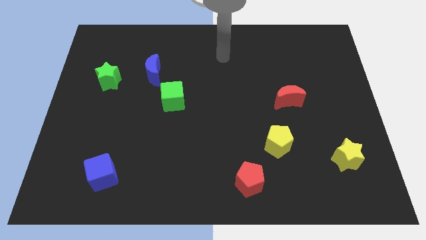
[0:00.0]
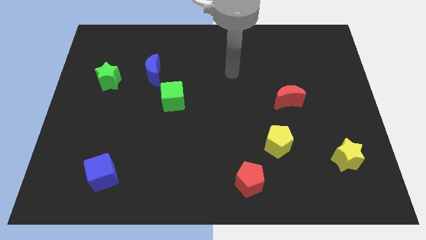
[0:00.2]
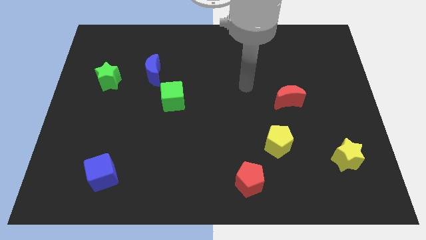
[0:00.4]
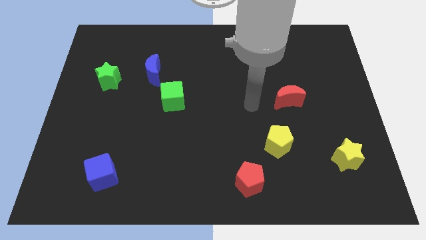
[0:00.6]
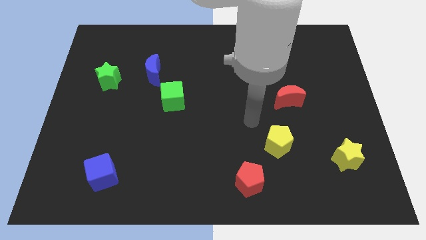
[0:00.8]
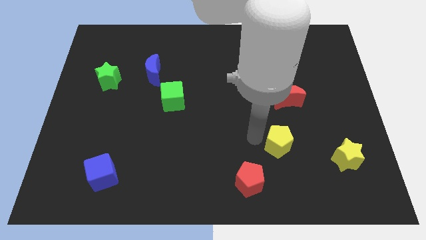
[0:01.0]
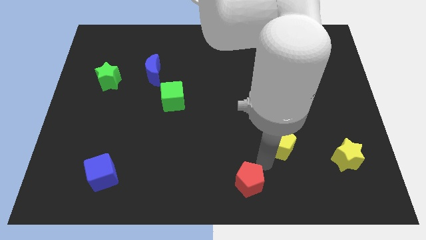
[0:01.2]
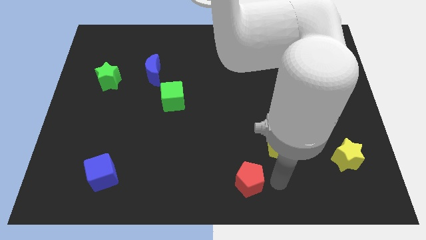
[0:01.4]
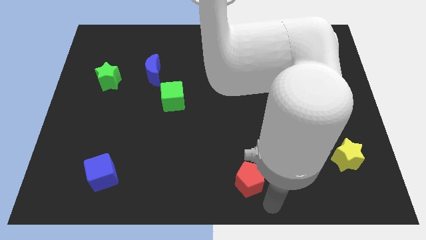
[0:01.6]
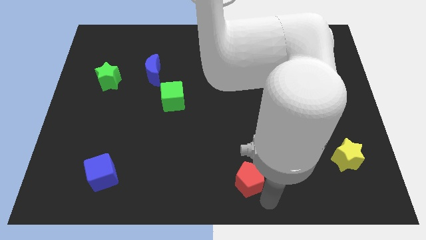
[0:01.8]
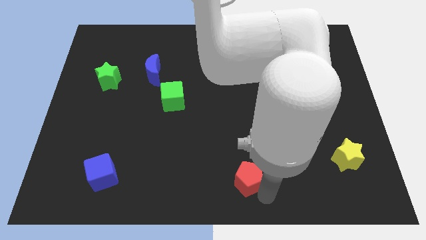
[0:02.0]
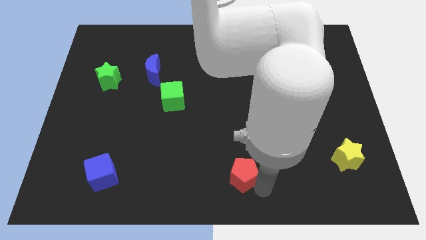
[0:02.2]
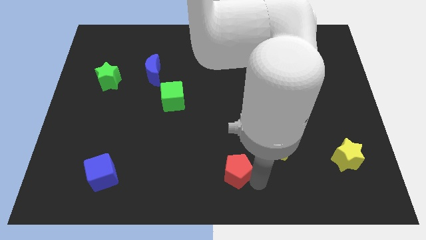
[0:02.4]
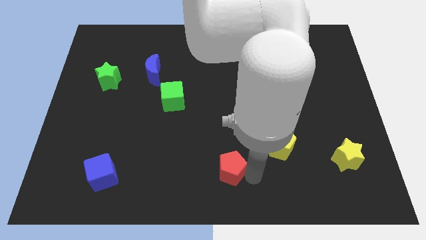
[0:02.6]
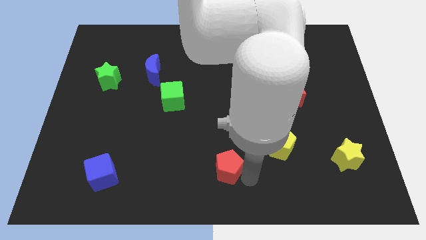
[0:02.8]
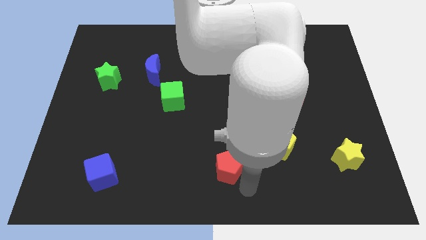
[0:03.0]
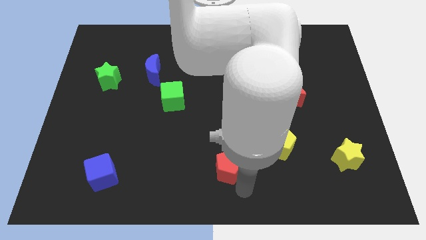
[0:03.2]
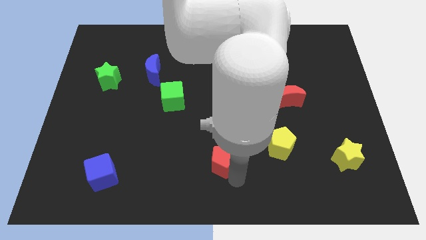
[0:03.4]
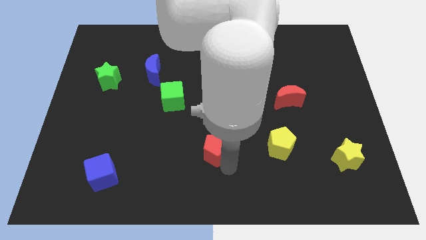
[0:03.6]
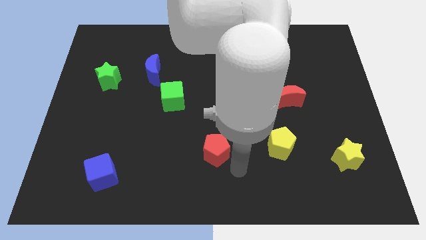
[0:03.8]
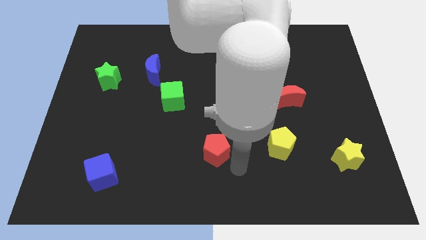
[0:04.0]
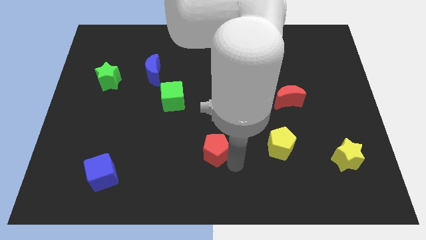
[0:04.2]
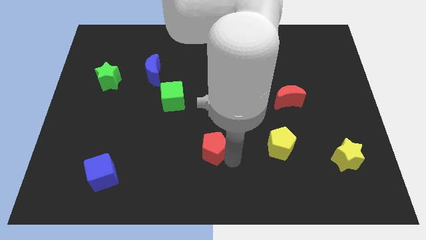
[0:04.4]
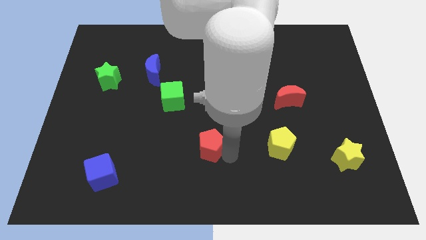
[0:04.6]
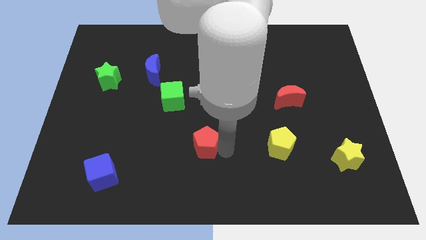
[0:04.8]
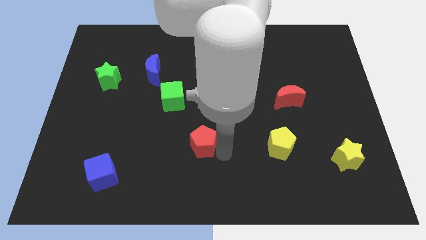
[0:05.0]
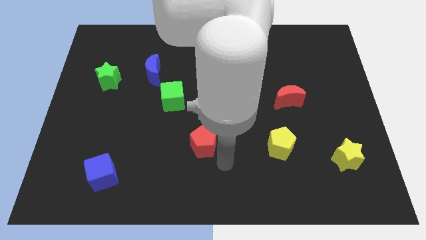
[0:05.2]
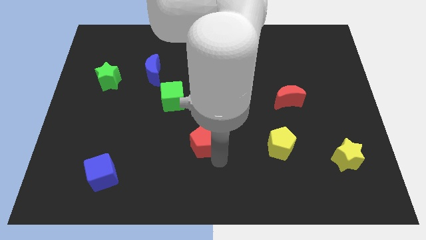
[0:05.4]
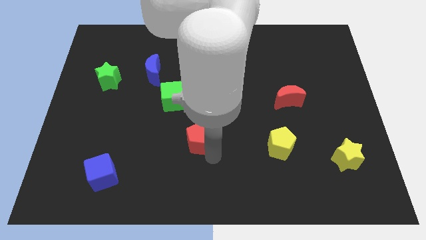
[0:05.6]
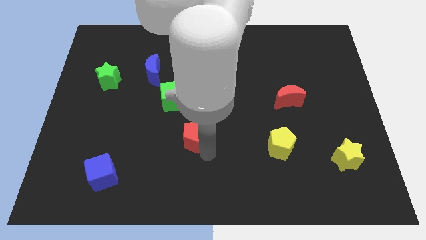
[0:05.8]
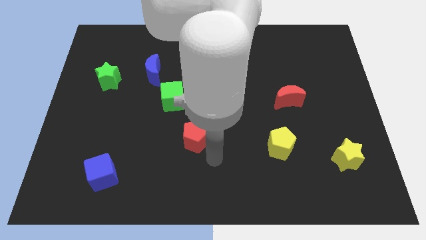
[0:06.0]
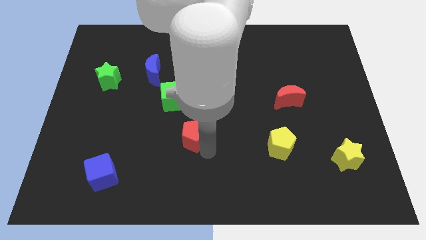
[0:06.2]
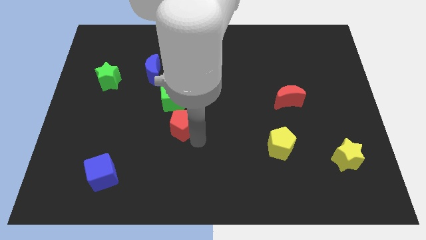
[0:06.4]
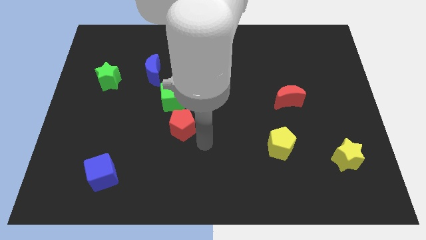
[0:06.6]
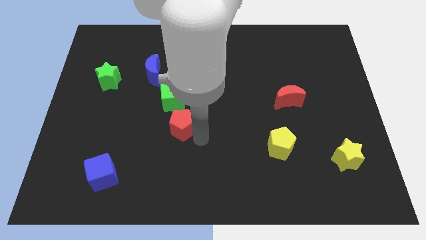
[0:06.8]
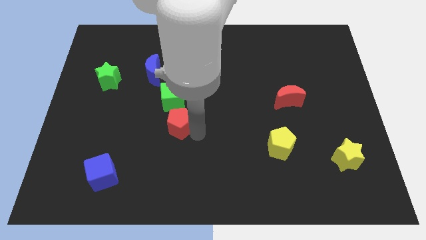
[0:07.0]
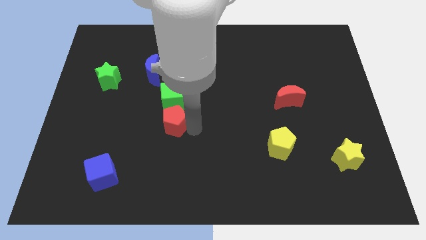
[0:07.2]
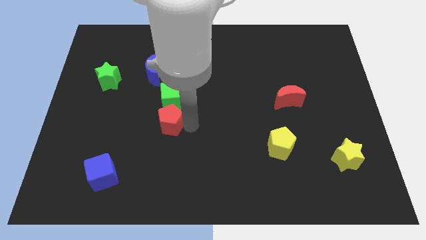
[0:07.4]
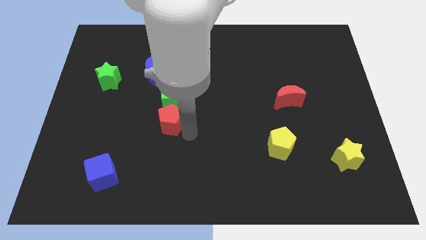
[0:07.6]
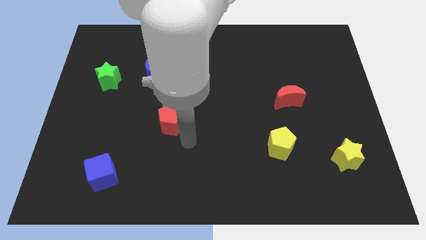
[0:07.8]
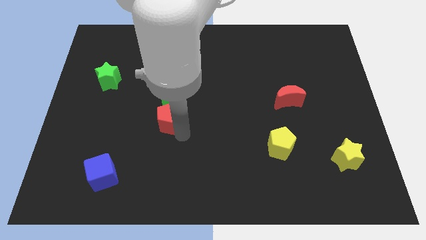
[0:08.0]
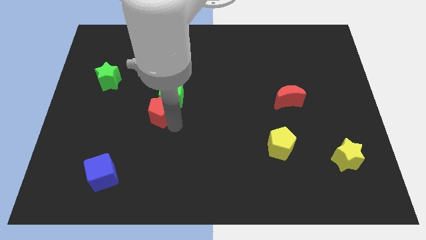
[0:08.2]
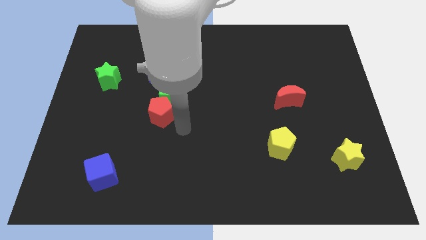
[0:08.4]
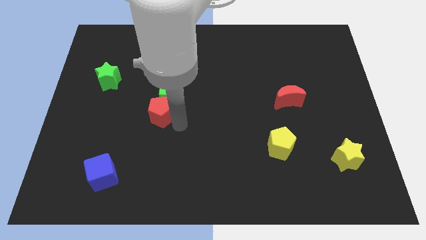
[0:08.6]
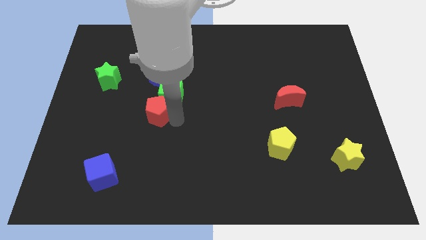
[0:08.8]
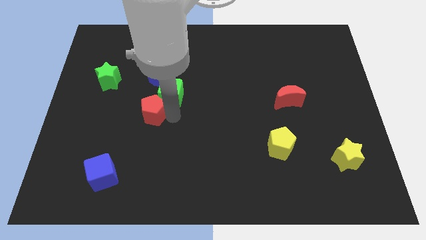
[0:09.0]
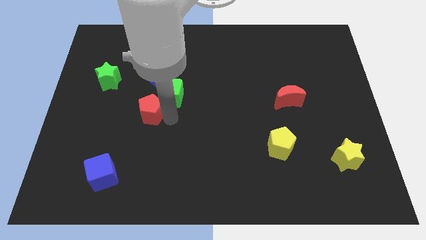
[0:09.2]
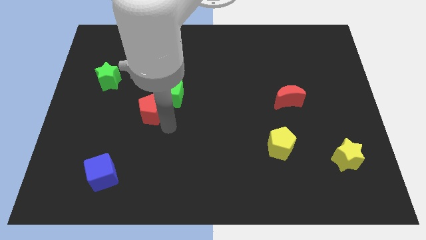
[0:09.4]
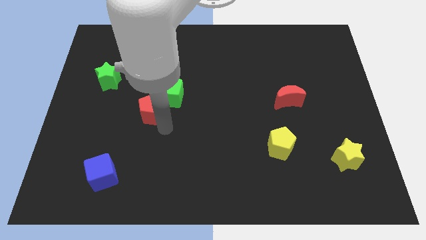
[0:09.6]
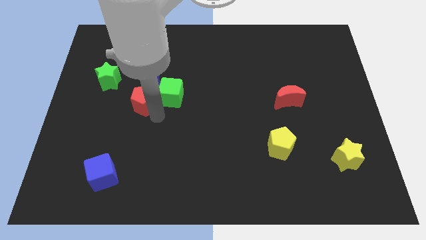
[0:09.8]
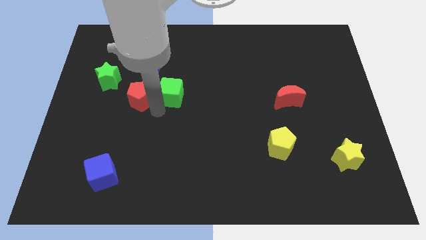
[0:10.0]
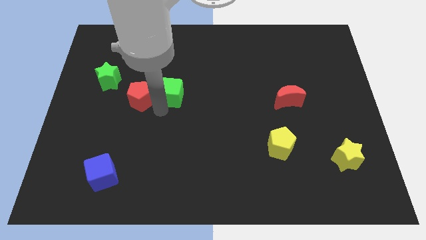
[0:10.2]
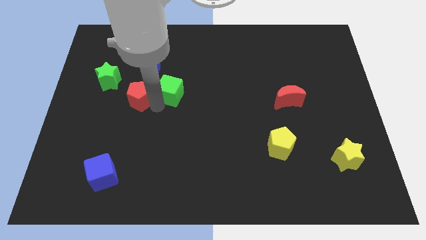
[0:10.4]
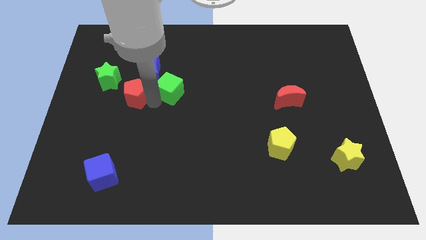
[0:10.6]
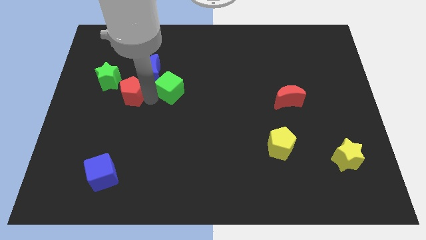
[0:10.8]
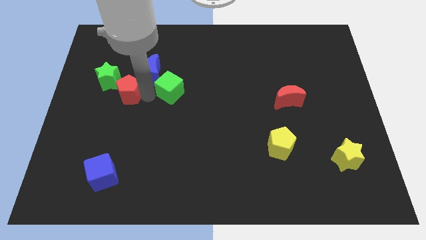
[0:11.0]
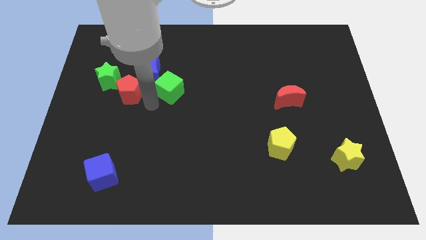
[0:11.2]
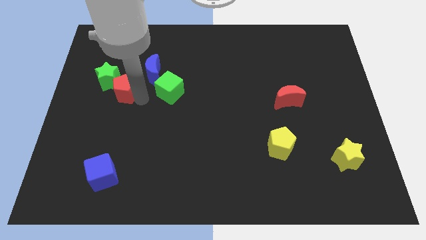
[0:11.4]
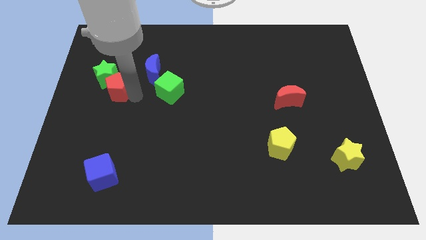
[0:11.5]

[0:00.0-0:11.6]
push the red pentagon next to the green star

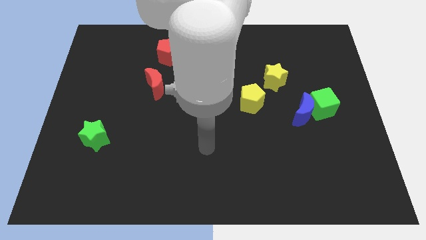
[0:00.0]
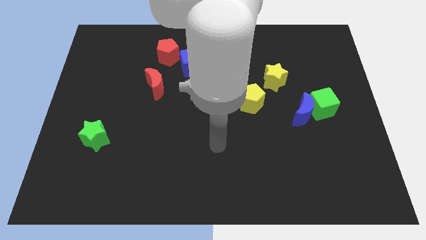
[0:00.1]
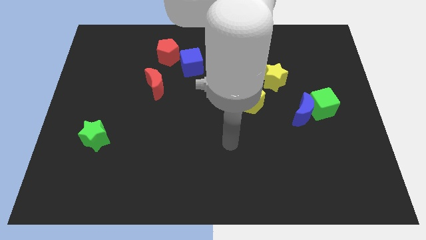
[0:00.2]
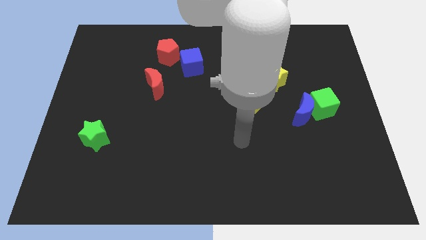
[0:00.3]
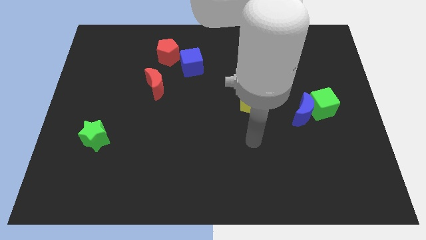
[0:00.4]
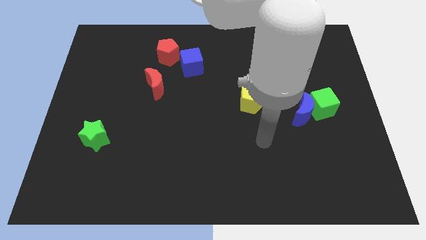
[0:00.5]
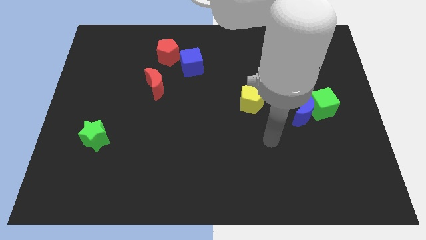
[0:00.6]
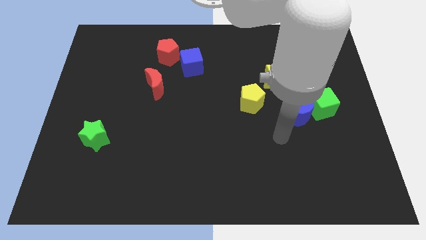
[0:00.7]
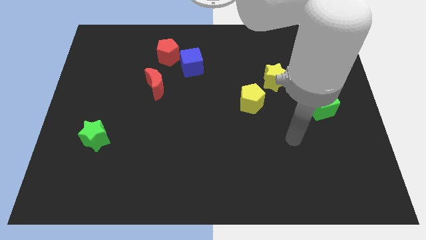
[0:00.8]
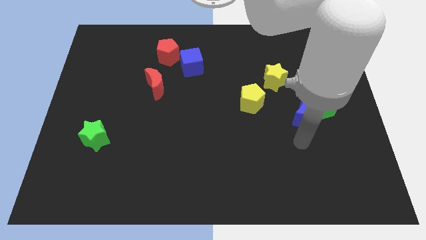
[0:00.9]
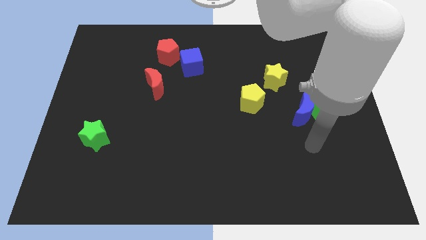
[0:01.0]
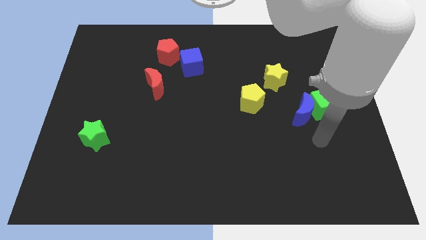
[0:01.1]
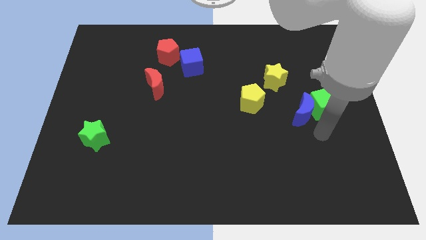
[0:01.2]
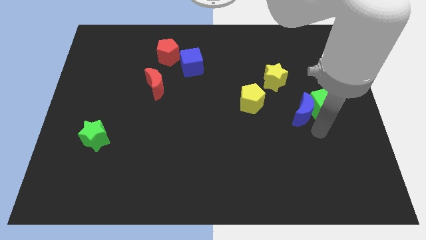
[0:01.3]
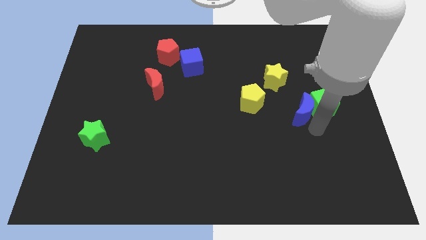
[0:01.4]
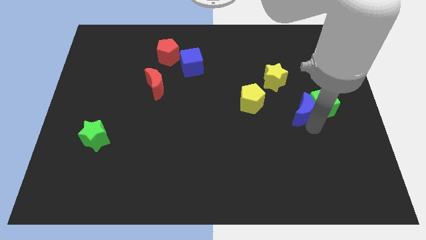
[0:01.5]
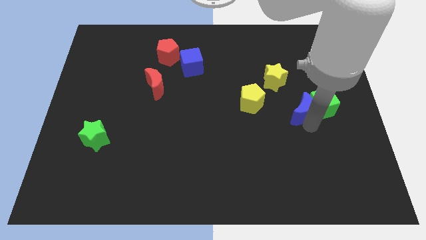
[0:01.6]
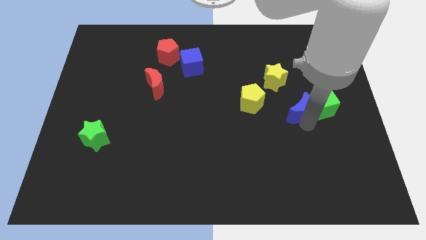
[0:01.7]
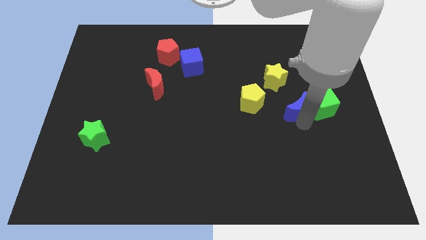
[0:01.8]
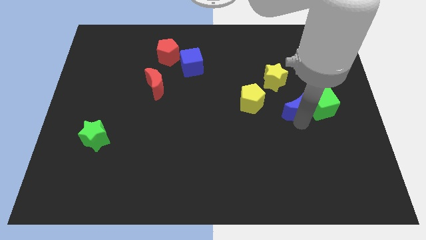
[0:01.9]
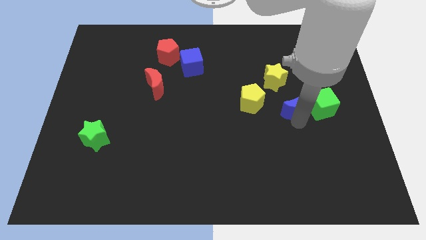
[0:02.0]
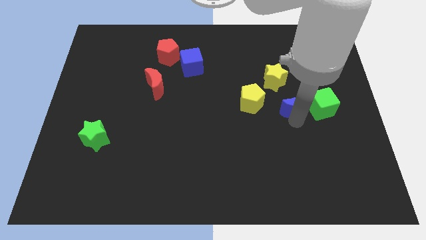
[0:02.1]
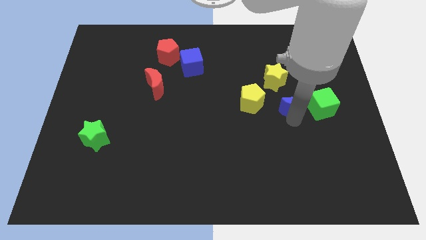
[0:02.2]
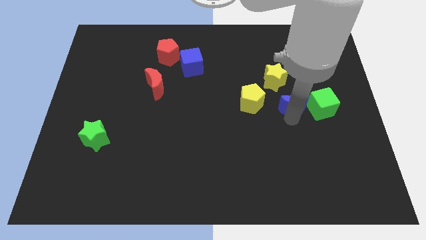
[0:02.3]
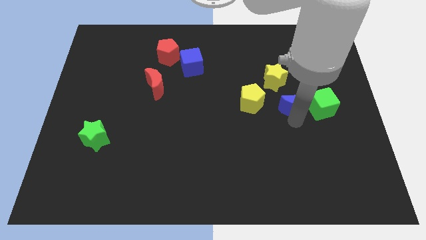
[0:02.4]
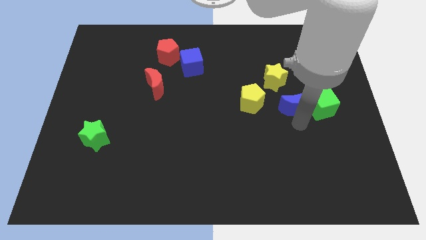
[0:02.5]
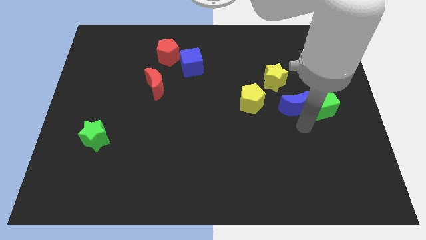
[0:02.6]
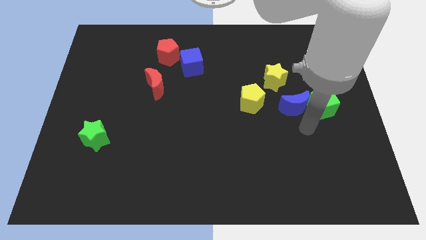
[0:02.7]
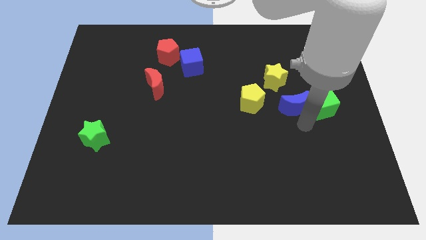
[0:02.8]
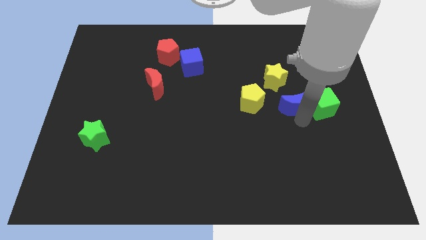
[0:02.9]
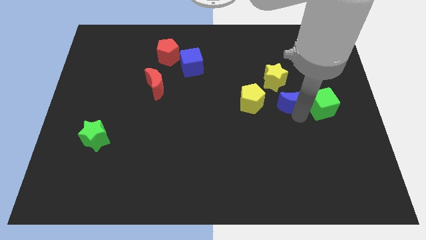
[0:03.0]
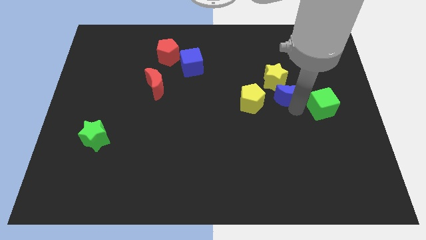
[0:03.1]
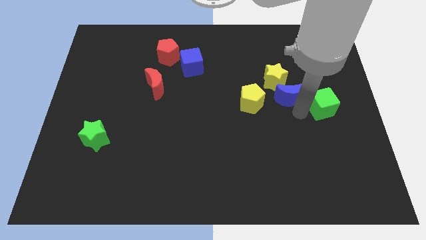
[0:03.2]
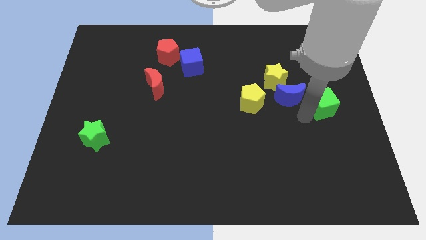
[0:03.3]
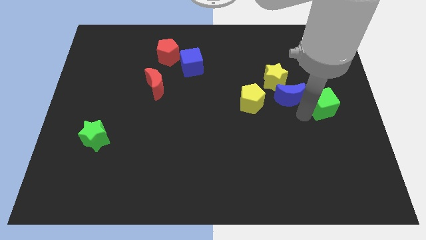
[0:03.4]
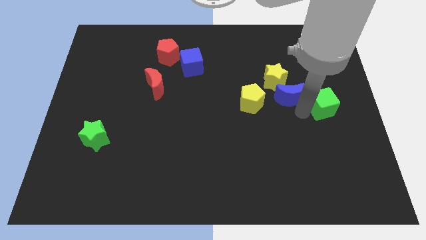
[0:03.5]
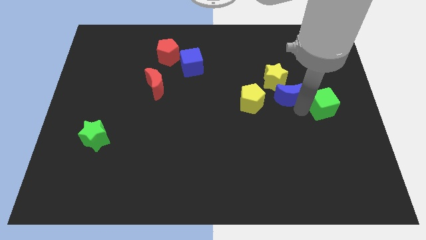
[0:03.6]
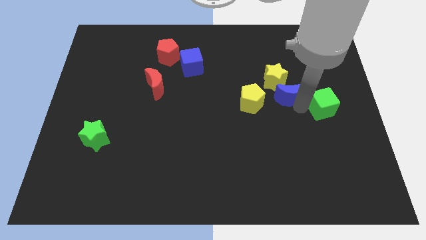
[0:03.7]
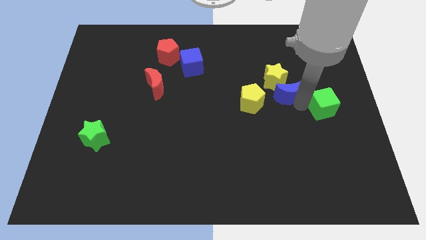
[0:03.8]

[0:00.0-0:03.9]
slide the blue moon close to the yellow star
